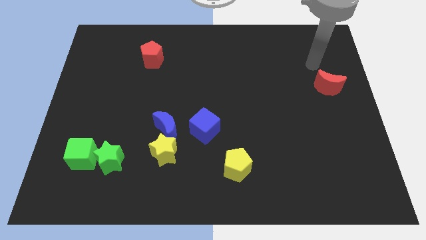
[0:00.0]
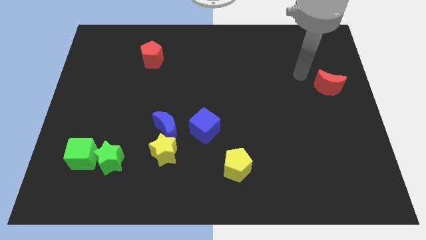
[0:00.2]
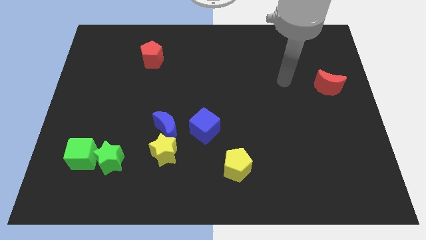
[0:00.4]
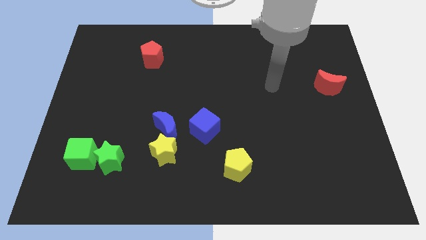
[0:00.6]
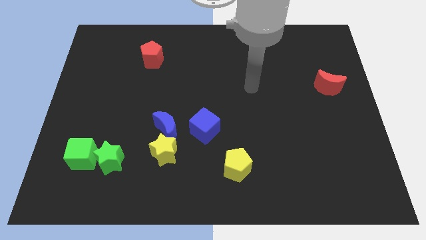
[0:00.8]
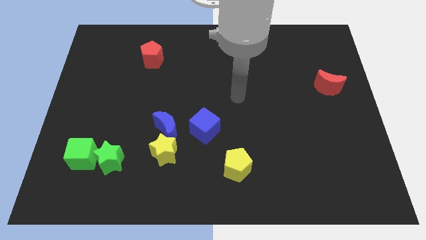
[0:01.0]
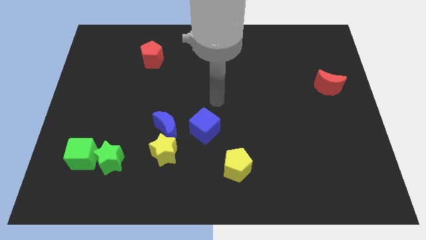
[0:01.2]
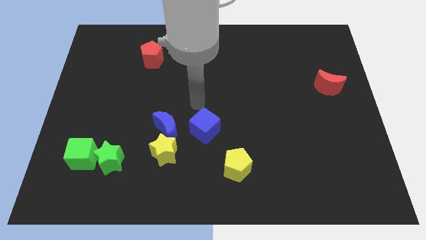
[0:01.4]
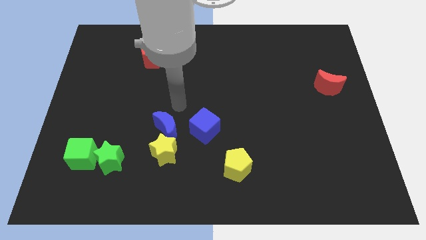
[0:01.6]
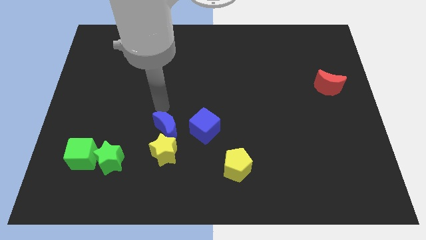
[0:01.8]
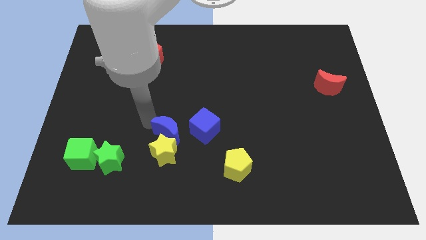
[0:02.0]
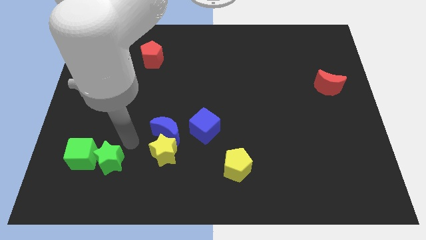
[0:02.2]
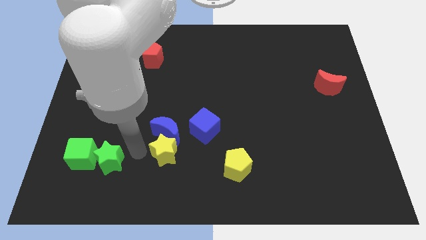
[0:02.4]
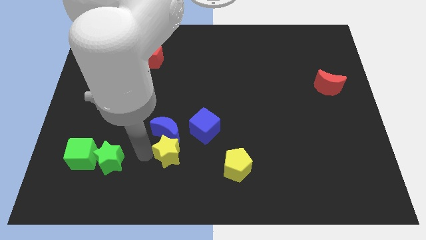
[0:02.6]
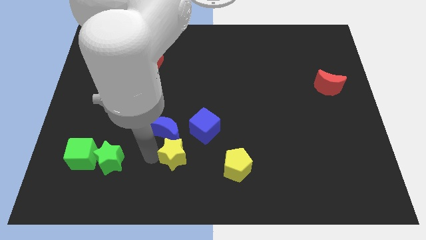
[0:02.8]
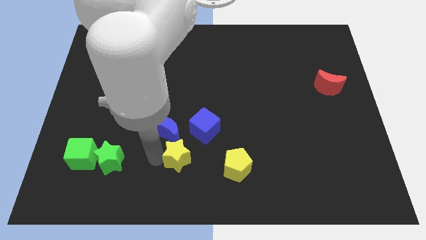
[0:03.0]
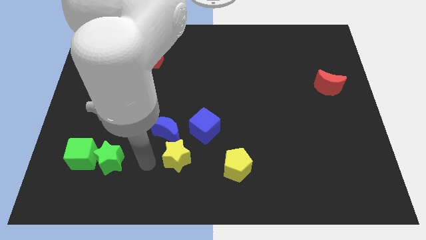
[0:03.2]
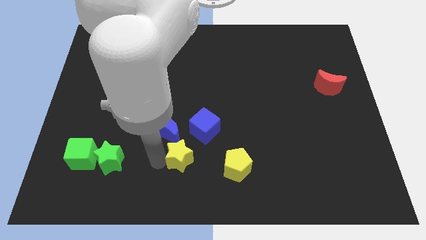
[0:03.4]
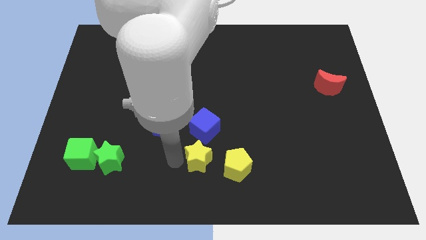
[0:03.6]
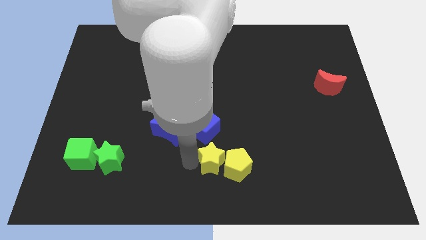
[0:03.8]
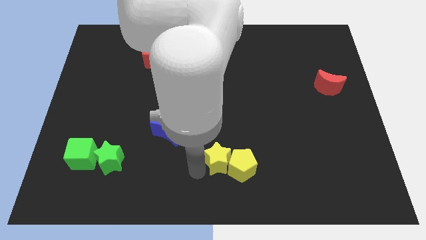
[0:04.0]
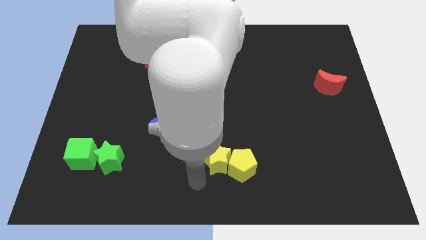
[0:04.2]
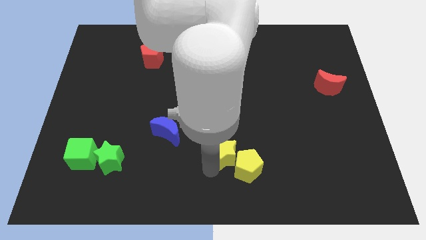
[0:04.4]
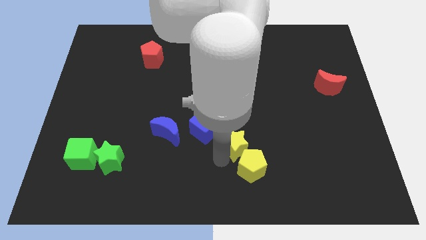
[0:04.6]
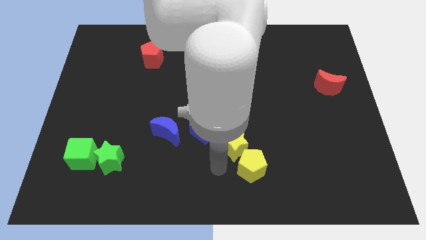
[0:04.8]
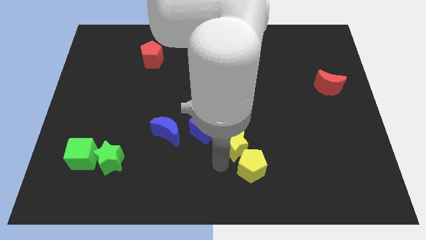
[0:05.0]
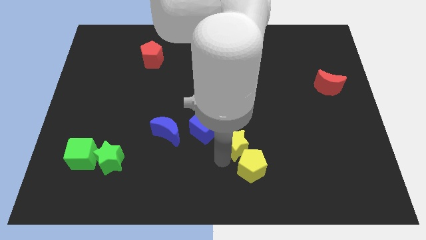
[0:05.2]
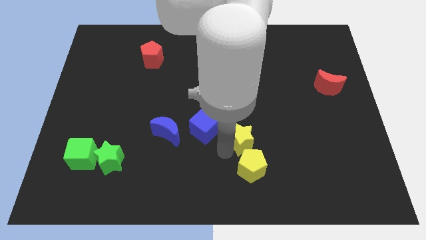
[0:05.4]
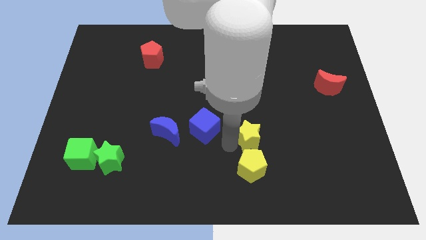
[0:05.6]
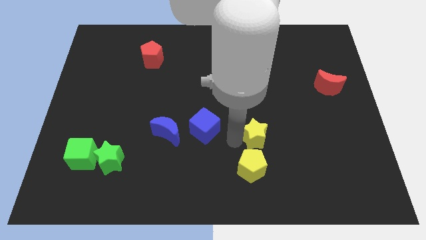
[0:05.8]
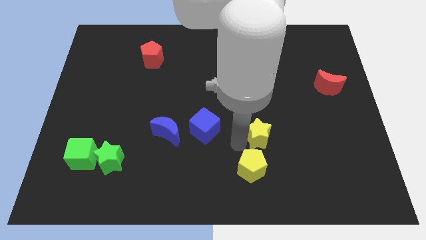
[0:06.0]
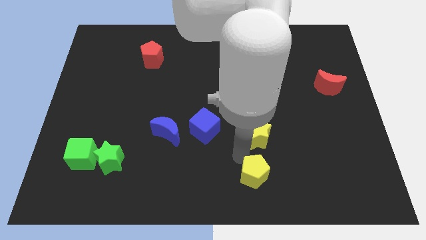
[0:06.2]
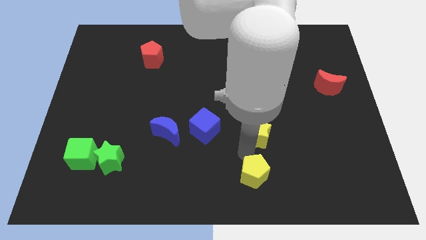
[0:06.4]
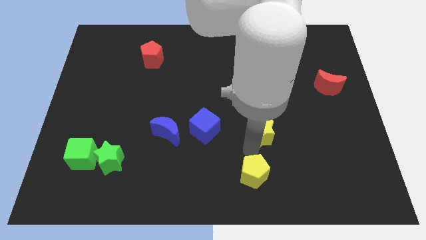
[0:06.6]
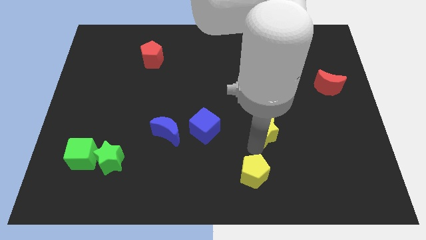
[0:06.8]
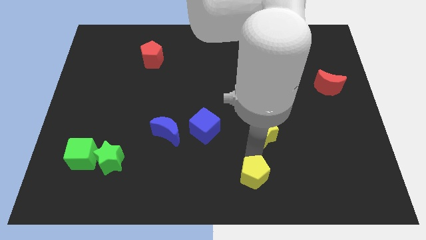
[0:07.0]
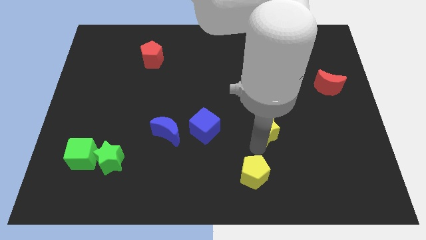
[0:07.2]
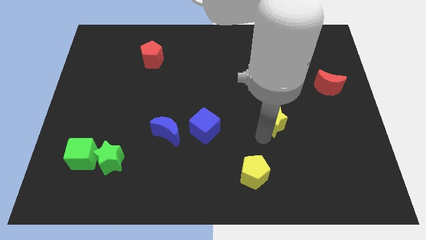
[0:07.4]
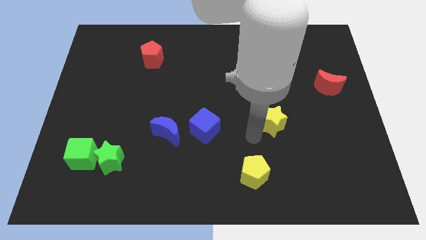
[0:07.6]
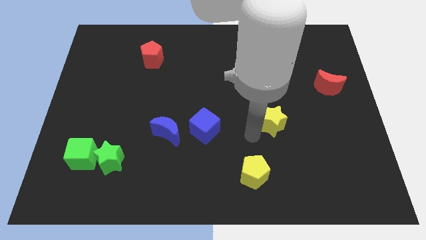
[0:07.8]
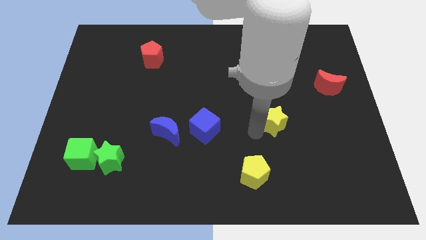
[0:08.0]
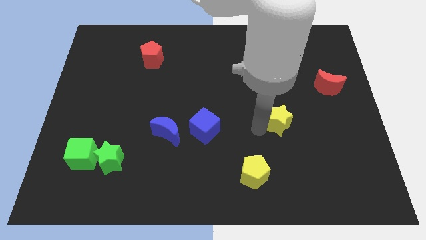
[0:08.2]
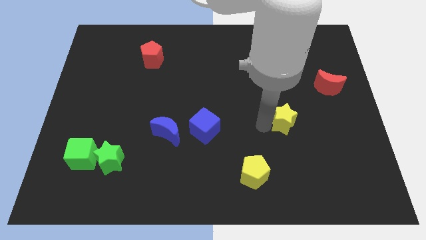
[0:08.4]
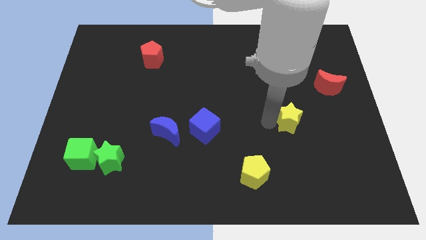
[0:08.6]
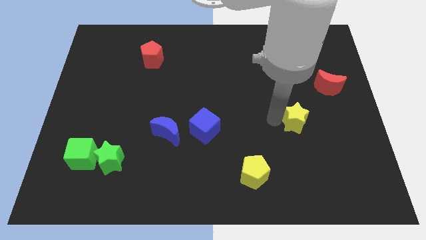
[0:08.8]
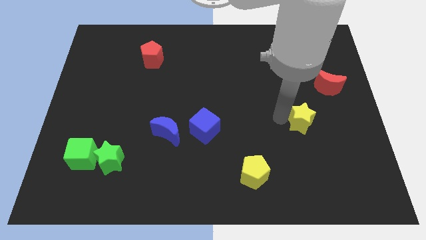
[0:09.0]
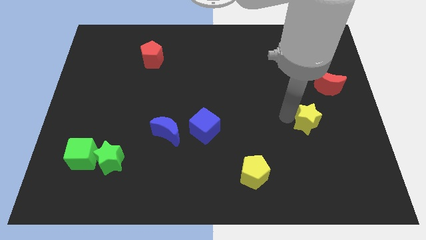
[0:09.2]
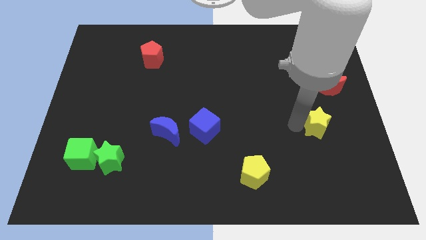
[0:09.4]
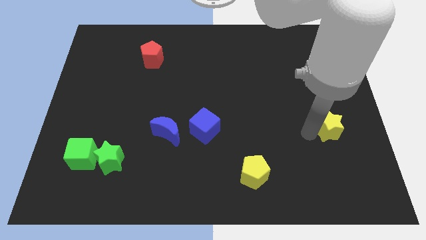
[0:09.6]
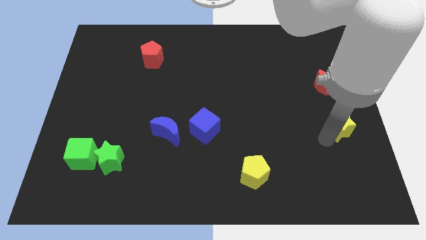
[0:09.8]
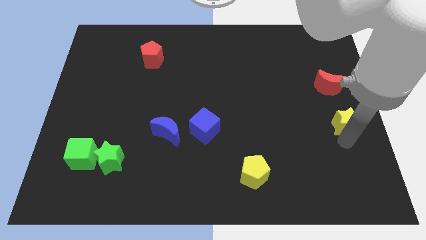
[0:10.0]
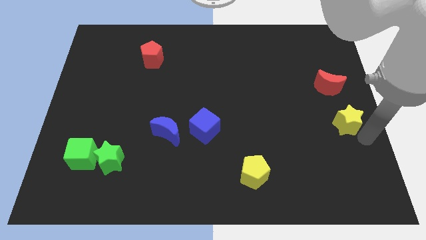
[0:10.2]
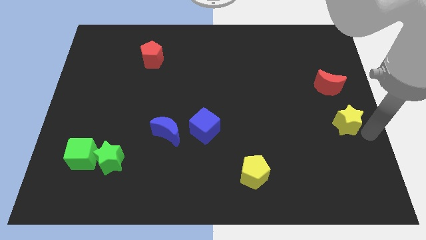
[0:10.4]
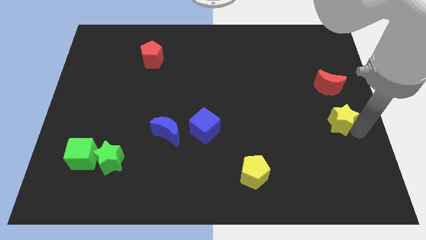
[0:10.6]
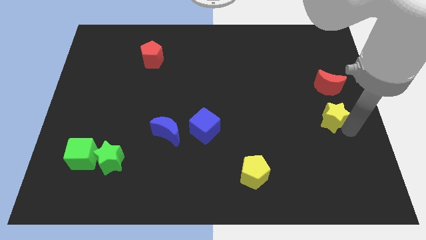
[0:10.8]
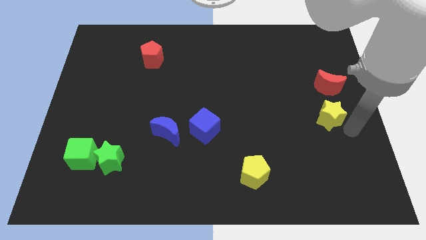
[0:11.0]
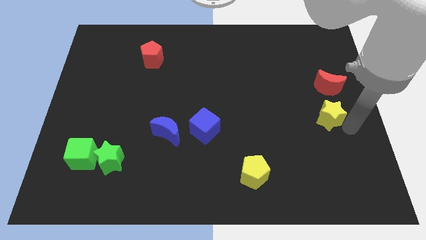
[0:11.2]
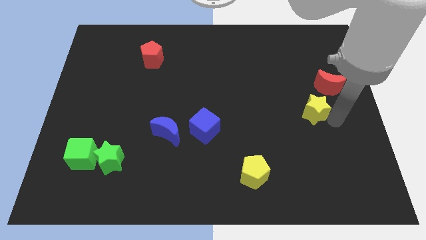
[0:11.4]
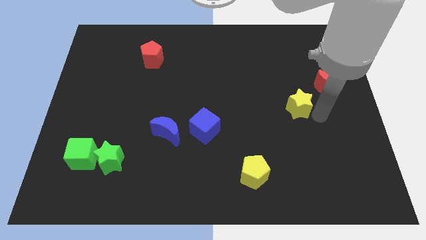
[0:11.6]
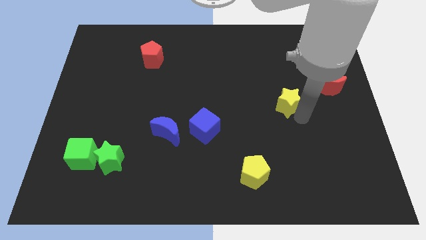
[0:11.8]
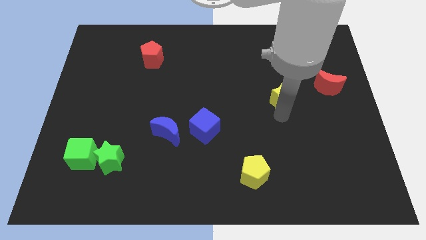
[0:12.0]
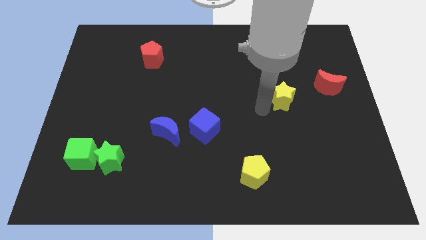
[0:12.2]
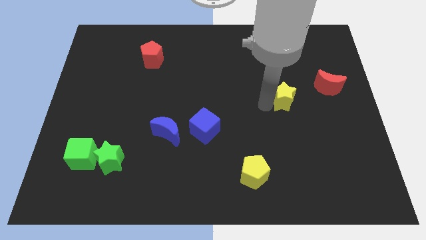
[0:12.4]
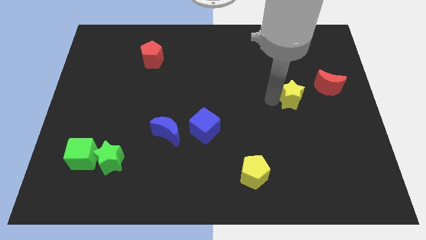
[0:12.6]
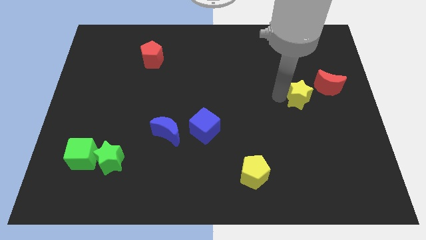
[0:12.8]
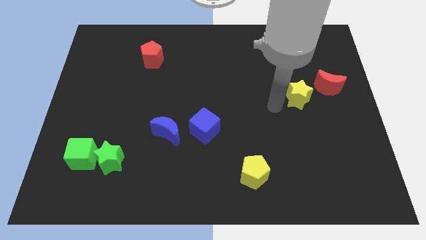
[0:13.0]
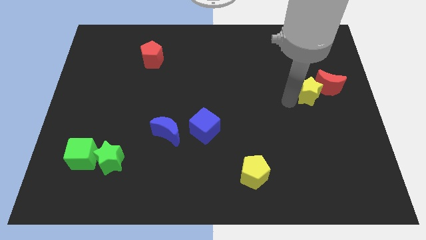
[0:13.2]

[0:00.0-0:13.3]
push the yellow star towards the red moon
